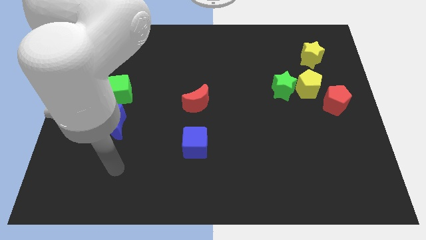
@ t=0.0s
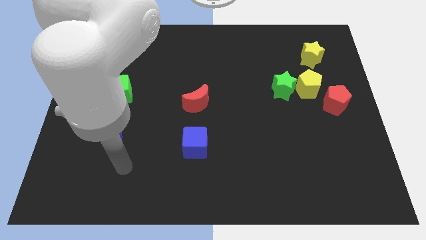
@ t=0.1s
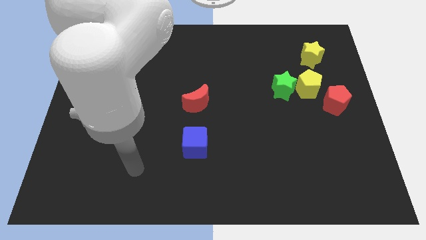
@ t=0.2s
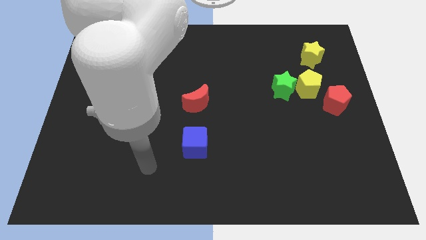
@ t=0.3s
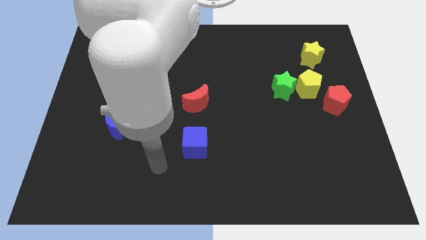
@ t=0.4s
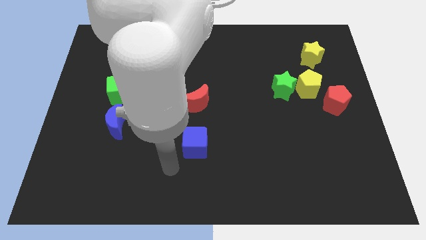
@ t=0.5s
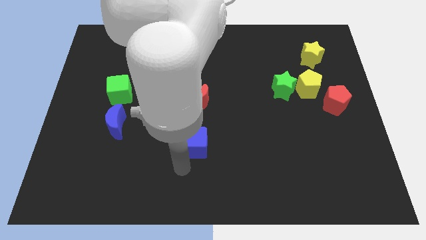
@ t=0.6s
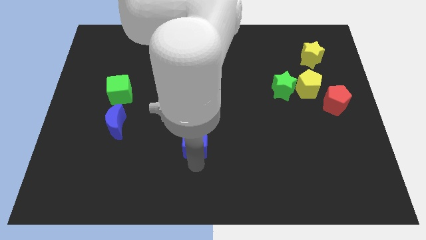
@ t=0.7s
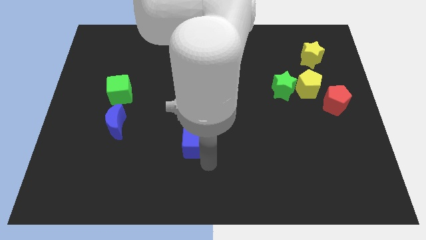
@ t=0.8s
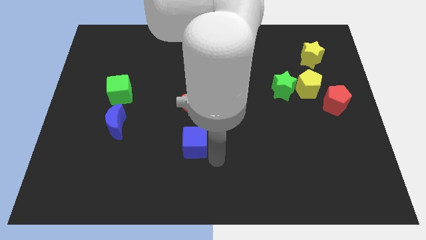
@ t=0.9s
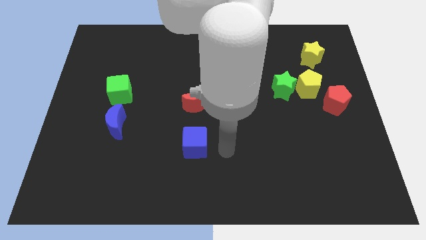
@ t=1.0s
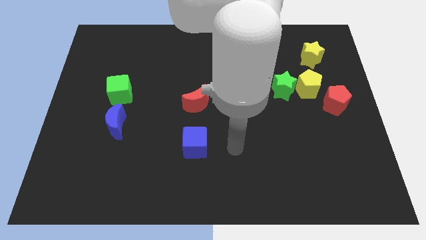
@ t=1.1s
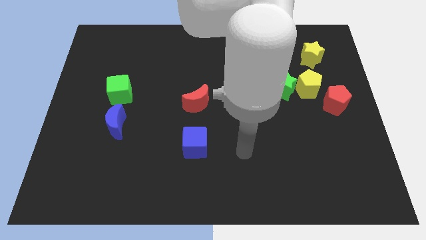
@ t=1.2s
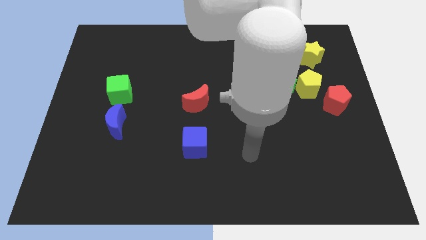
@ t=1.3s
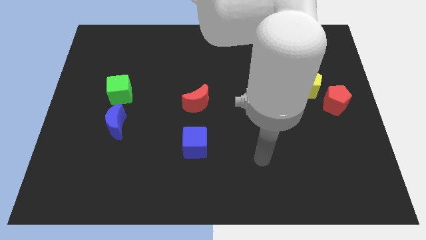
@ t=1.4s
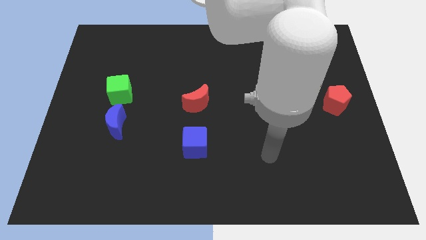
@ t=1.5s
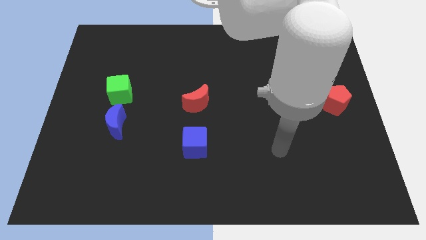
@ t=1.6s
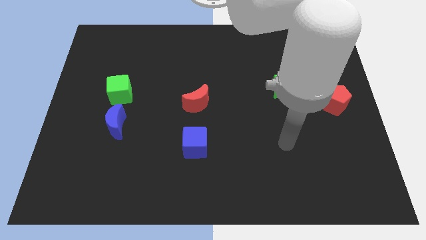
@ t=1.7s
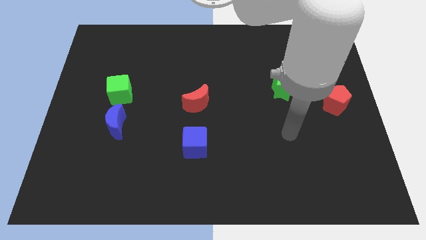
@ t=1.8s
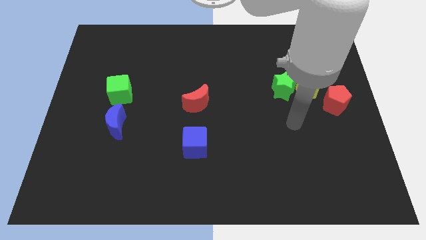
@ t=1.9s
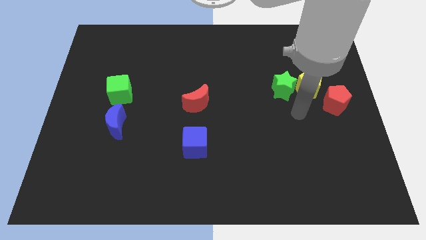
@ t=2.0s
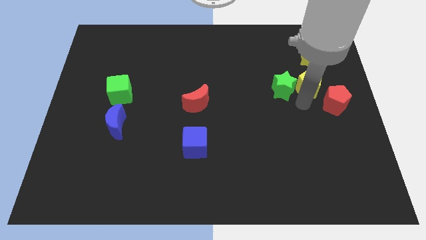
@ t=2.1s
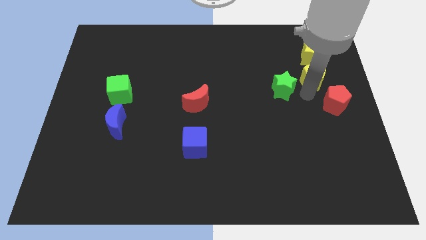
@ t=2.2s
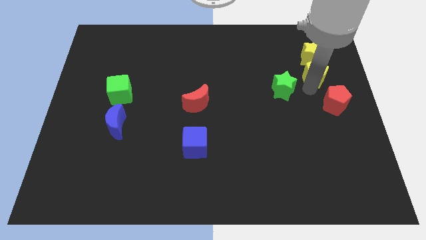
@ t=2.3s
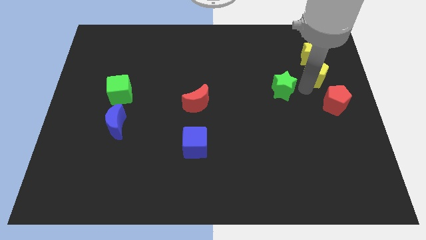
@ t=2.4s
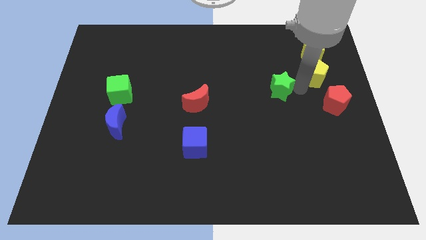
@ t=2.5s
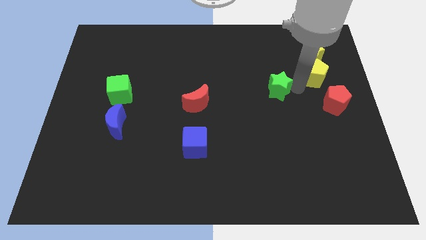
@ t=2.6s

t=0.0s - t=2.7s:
pull the green star apart from the yellow pentagon

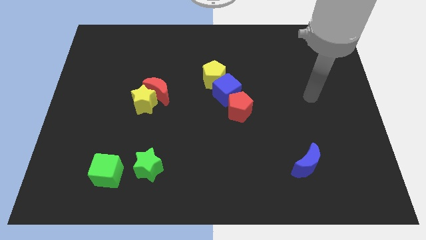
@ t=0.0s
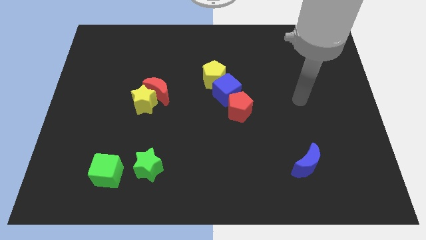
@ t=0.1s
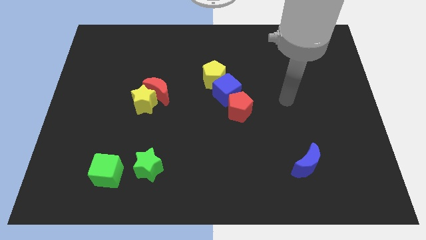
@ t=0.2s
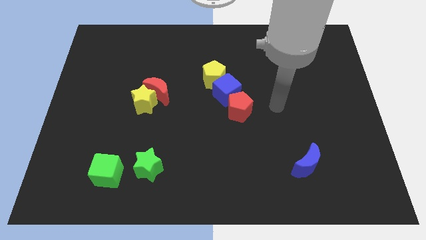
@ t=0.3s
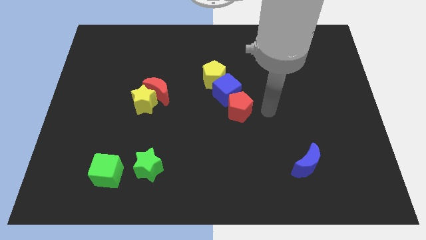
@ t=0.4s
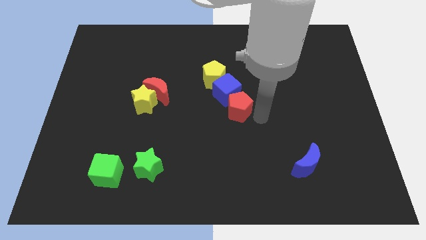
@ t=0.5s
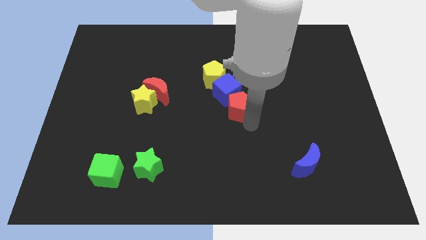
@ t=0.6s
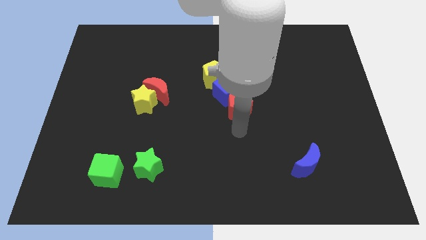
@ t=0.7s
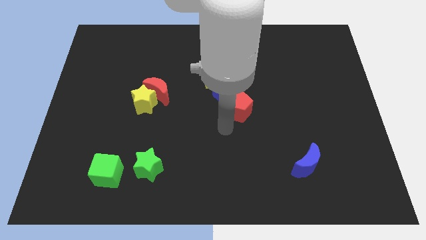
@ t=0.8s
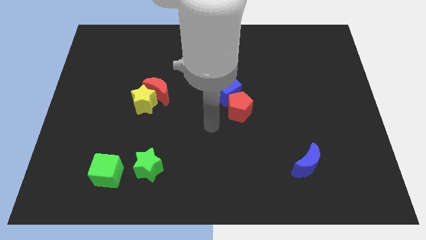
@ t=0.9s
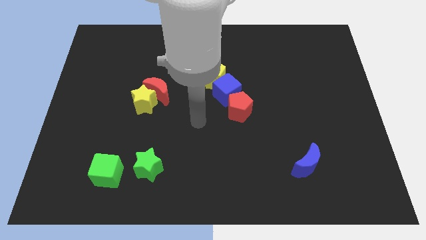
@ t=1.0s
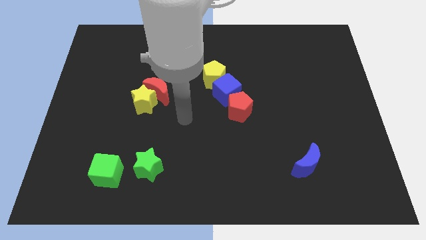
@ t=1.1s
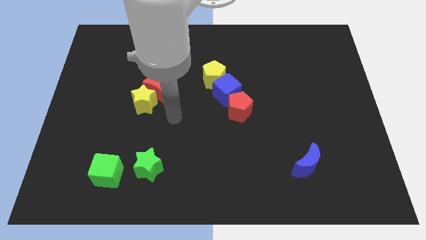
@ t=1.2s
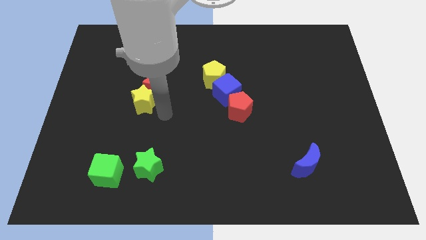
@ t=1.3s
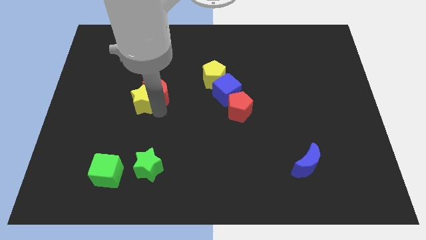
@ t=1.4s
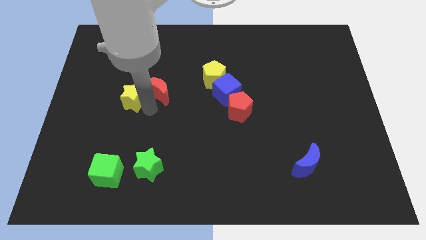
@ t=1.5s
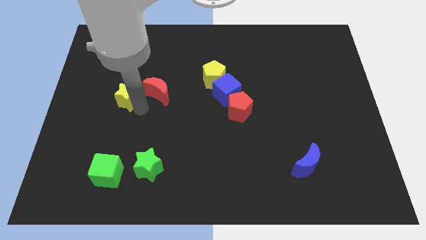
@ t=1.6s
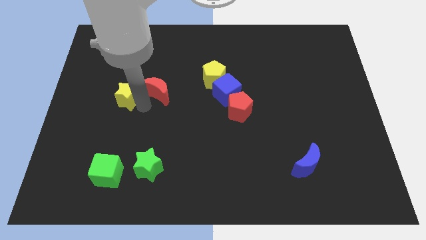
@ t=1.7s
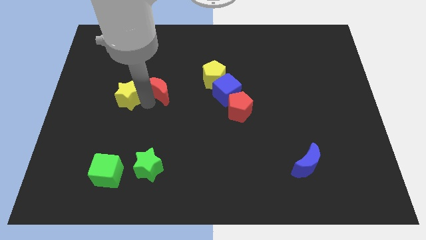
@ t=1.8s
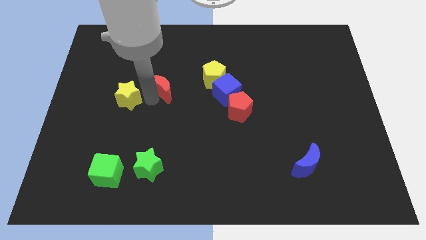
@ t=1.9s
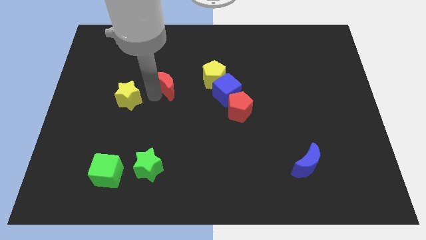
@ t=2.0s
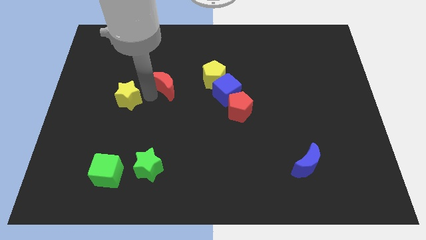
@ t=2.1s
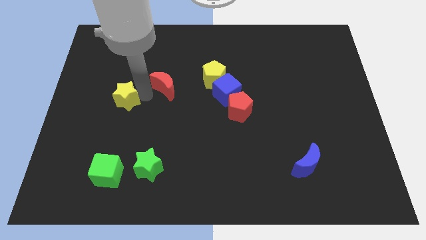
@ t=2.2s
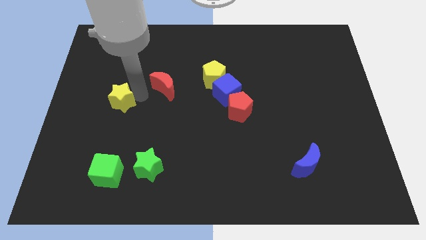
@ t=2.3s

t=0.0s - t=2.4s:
separate the red moon from the yellow star

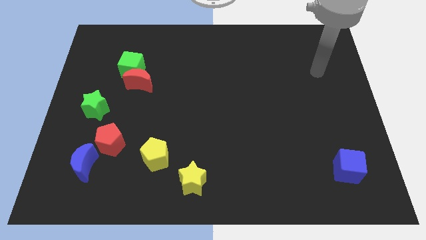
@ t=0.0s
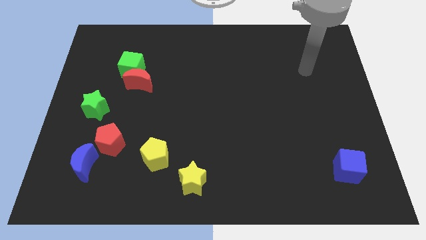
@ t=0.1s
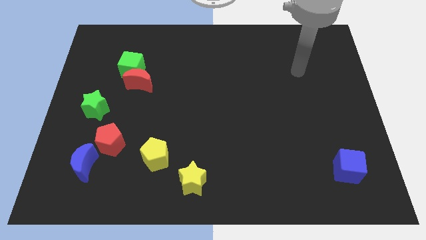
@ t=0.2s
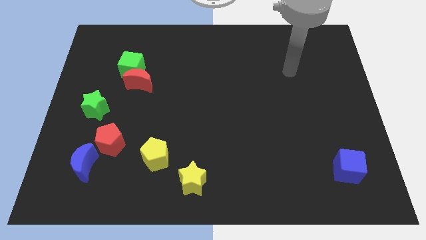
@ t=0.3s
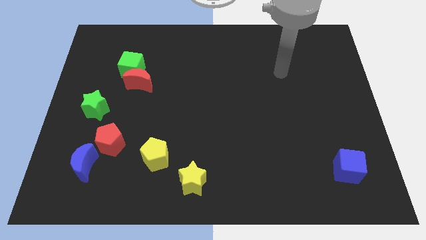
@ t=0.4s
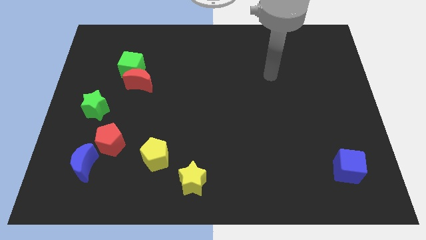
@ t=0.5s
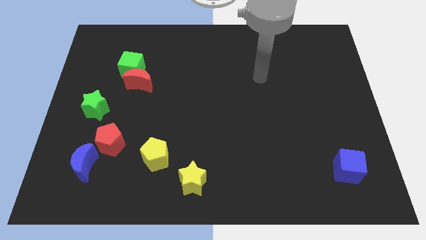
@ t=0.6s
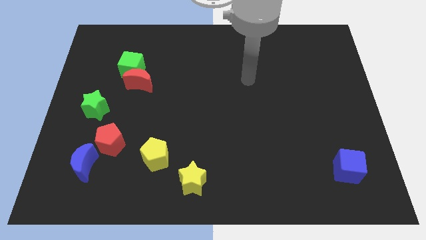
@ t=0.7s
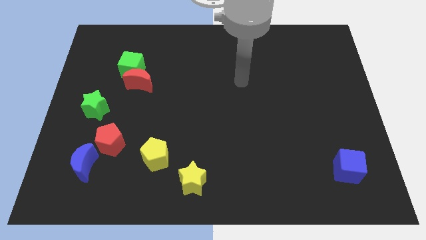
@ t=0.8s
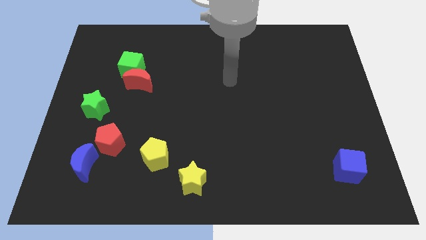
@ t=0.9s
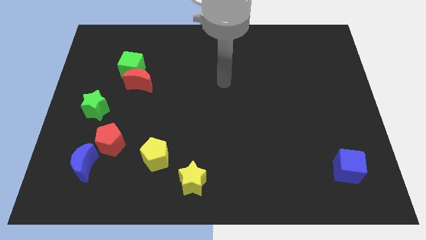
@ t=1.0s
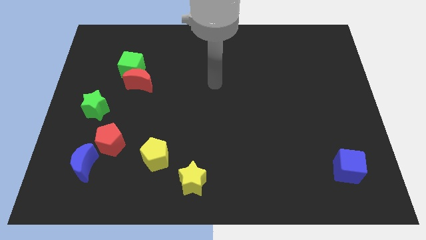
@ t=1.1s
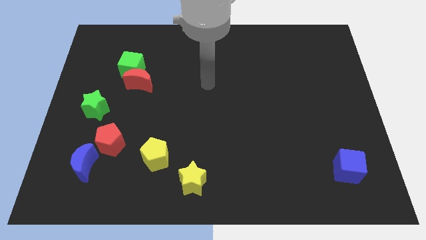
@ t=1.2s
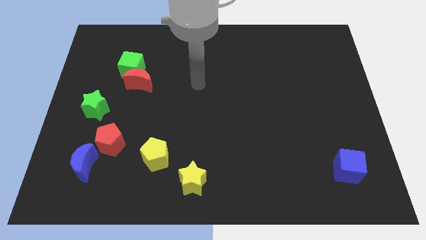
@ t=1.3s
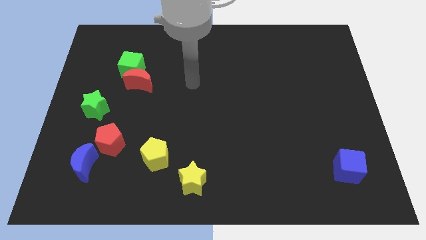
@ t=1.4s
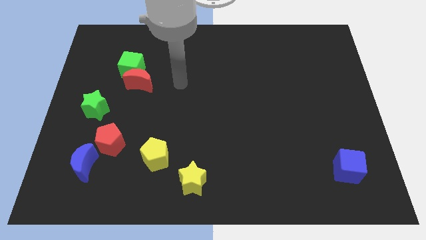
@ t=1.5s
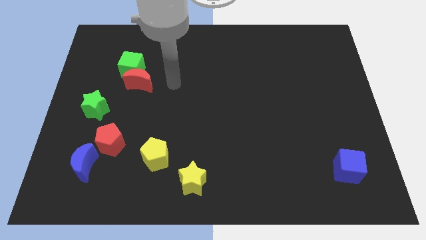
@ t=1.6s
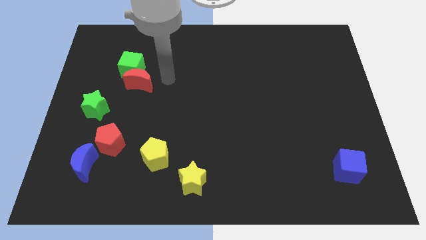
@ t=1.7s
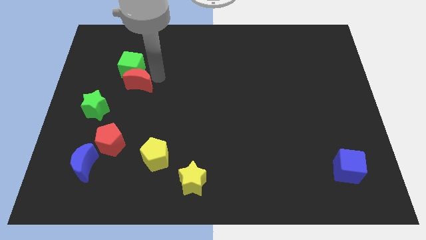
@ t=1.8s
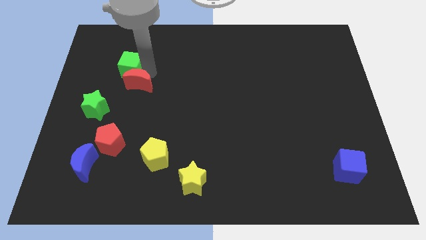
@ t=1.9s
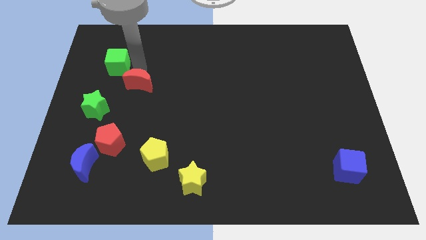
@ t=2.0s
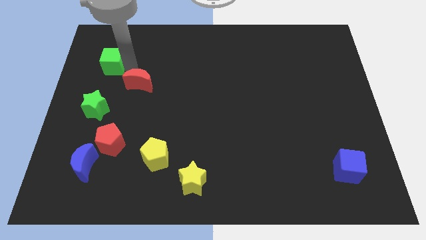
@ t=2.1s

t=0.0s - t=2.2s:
move the red moon away from the green cube

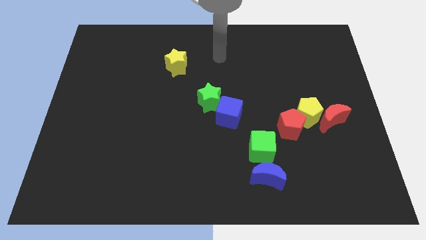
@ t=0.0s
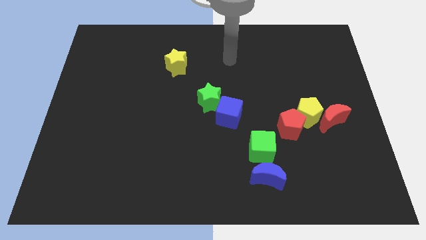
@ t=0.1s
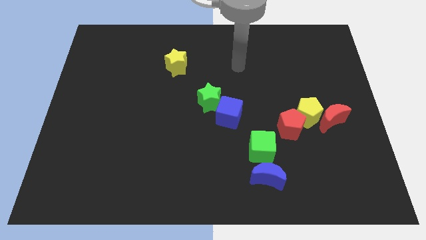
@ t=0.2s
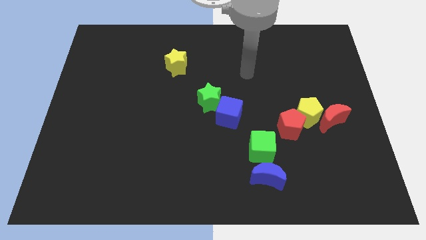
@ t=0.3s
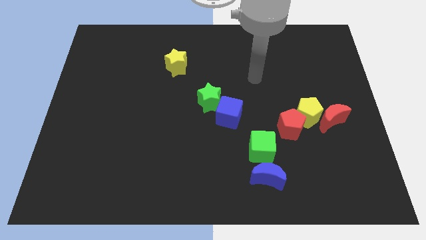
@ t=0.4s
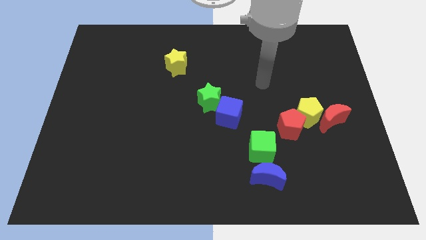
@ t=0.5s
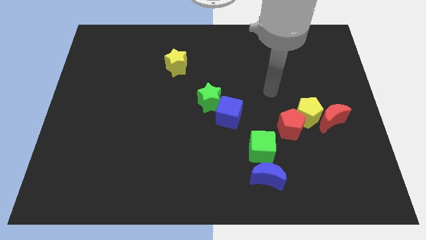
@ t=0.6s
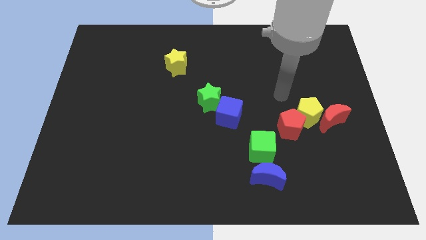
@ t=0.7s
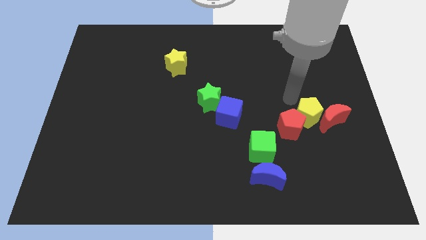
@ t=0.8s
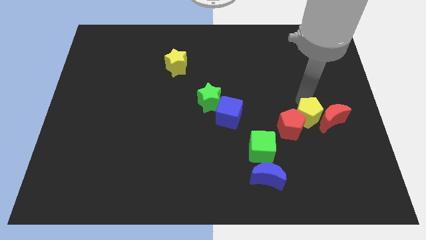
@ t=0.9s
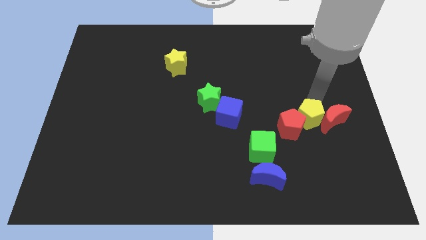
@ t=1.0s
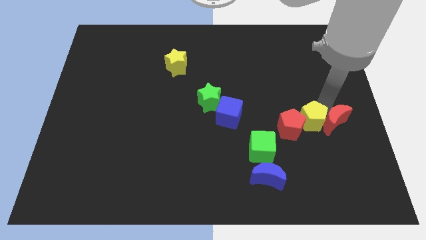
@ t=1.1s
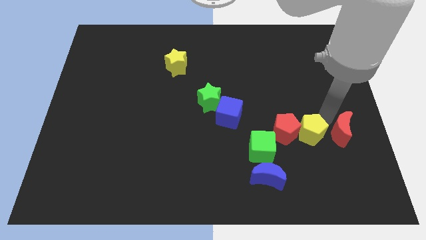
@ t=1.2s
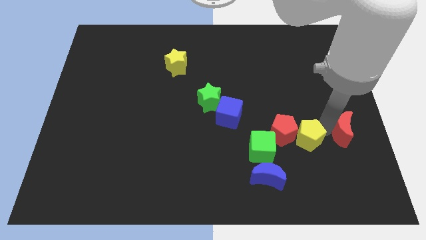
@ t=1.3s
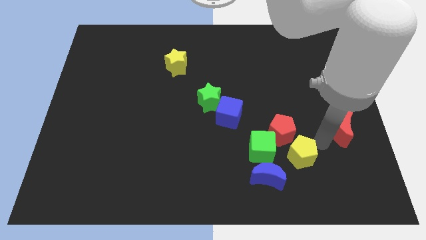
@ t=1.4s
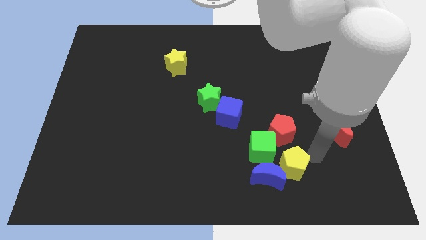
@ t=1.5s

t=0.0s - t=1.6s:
pull the yellow pentagon apart from the red moon and red pentagon

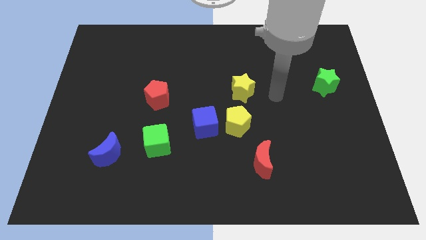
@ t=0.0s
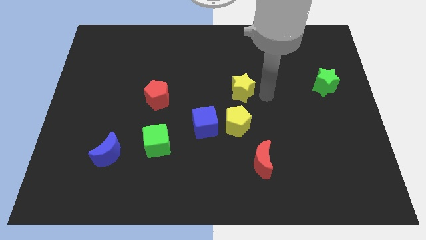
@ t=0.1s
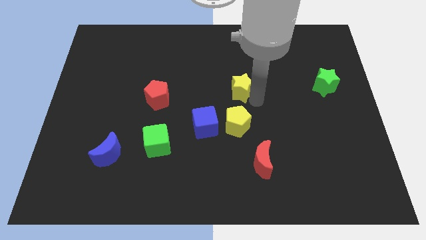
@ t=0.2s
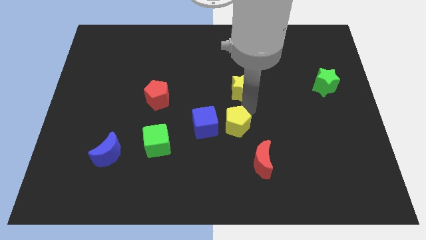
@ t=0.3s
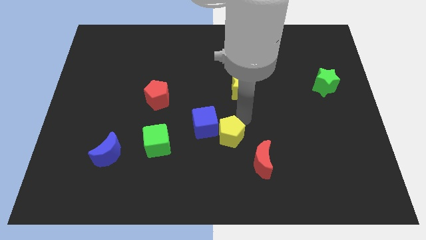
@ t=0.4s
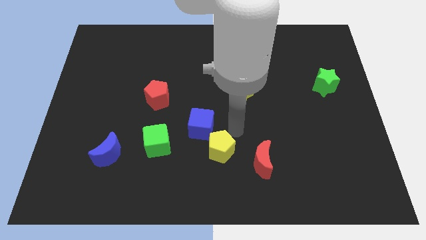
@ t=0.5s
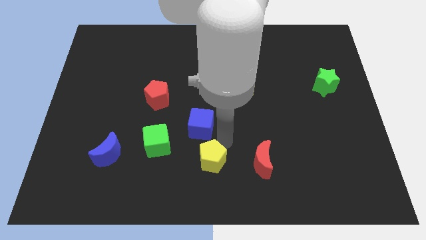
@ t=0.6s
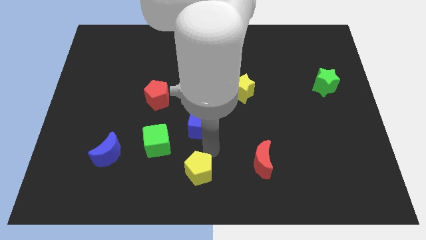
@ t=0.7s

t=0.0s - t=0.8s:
move the blue cube away from the yellow pentagon
